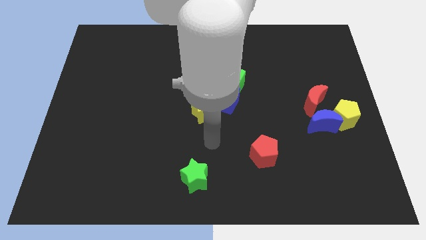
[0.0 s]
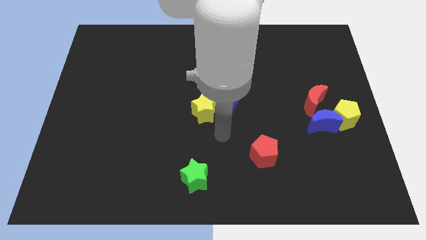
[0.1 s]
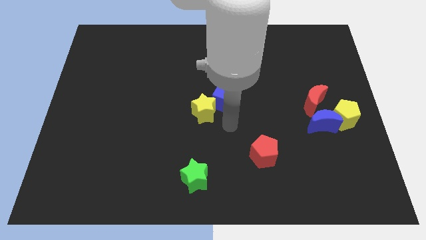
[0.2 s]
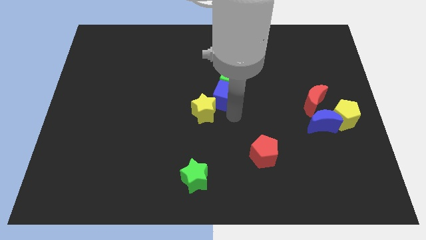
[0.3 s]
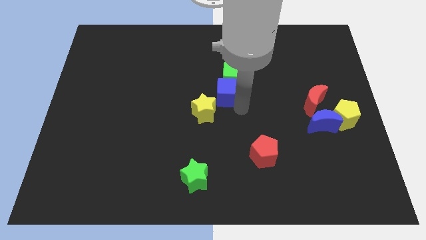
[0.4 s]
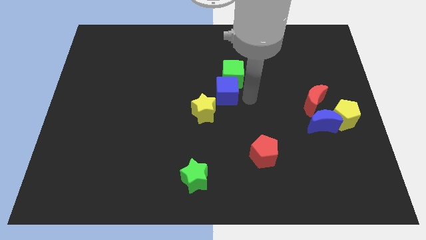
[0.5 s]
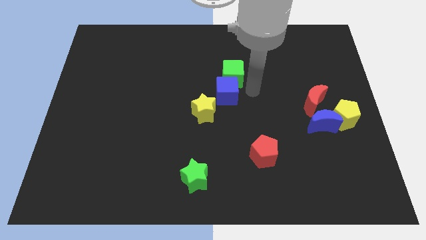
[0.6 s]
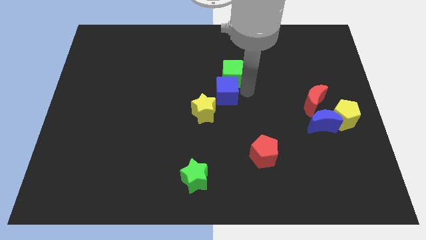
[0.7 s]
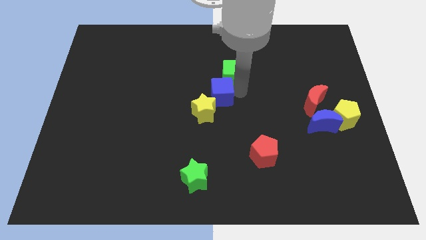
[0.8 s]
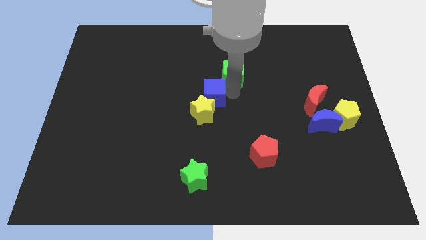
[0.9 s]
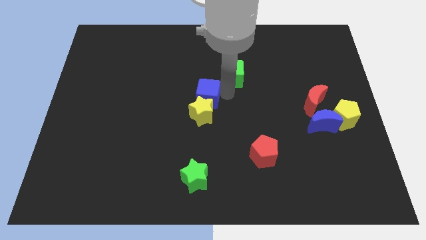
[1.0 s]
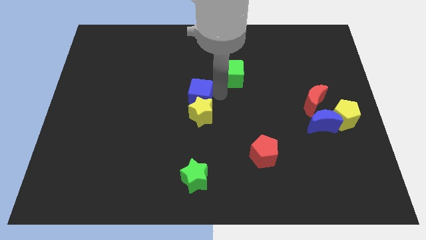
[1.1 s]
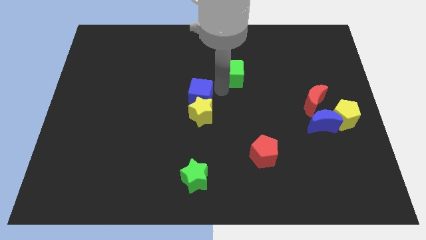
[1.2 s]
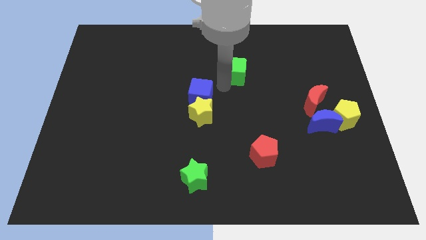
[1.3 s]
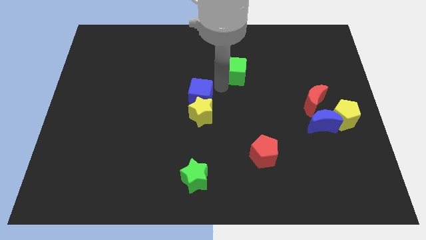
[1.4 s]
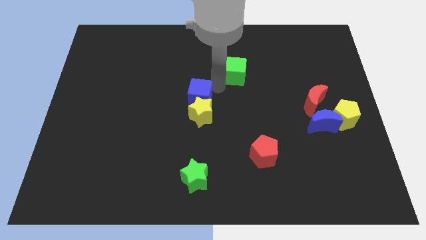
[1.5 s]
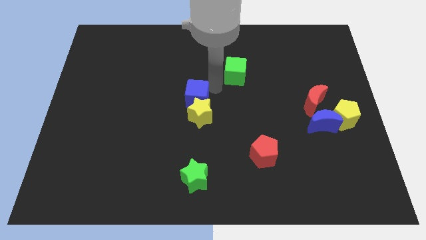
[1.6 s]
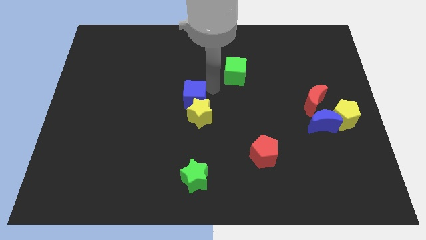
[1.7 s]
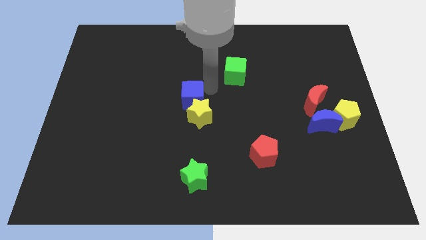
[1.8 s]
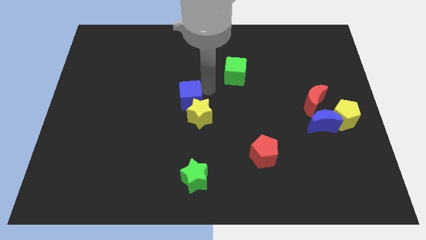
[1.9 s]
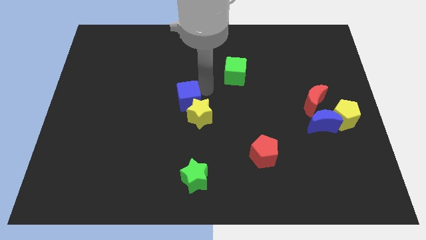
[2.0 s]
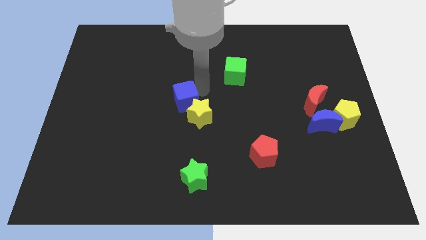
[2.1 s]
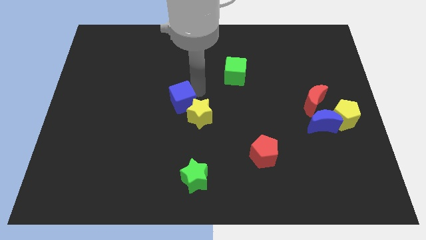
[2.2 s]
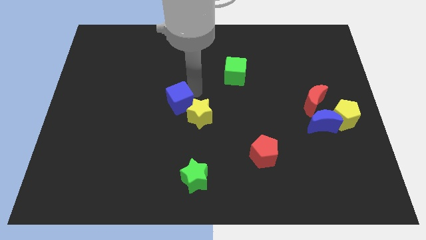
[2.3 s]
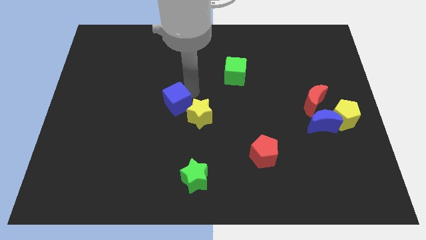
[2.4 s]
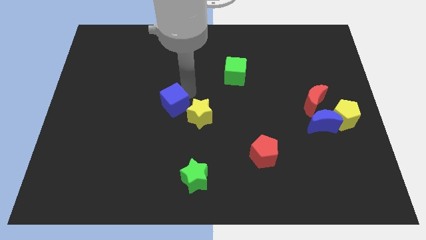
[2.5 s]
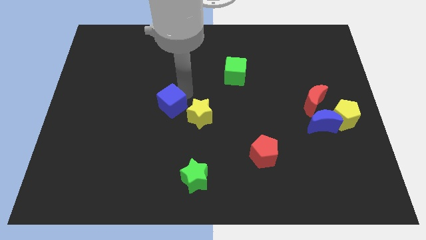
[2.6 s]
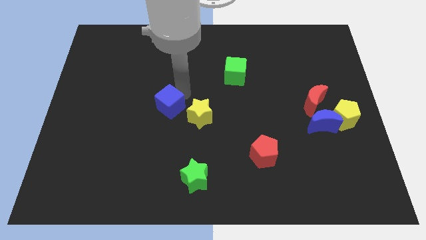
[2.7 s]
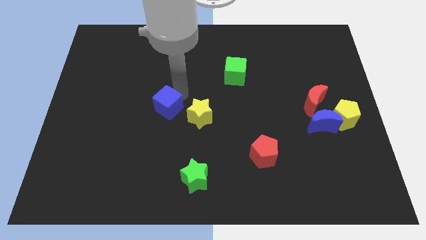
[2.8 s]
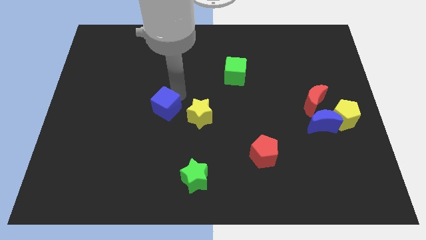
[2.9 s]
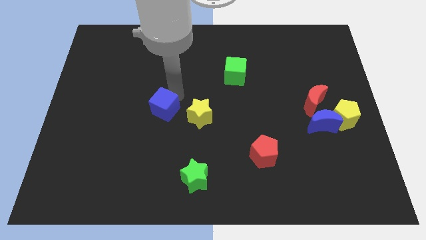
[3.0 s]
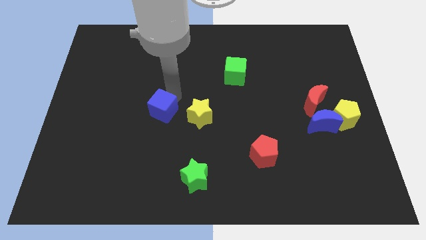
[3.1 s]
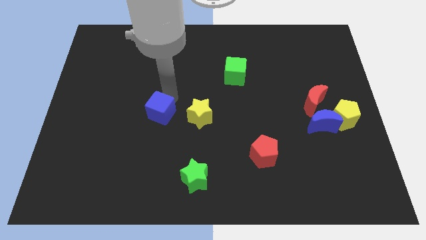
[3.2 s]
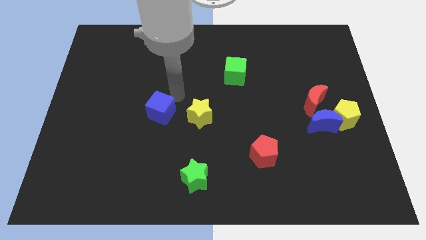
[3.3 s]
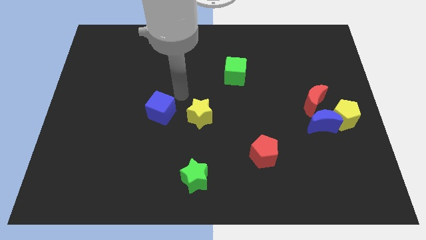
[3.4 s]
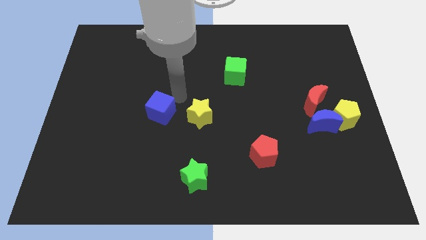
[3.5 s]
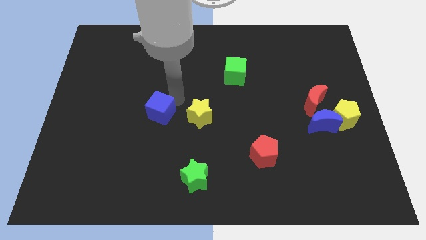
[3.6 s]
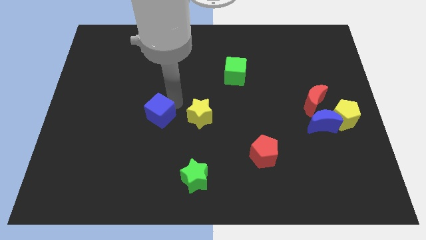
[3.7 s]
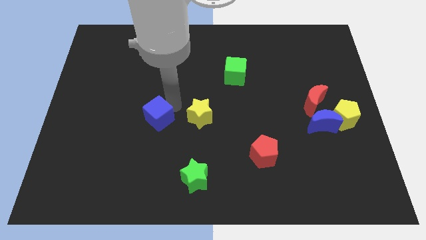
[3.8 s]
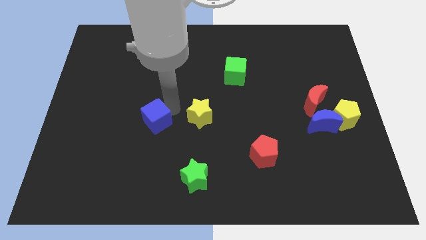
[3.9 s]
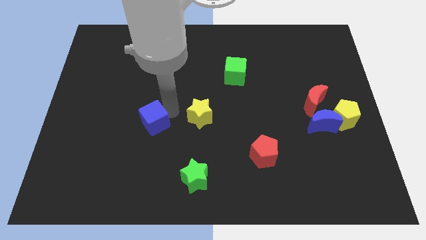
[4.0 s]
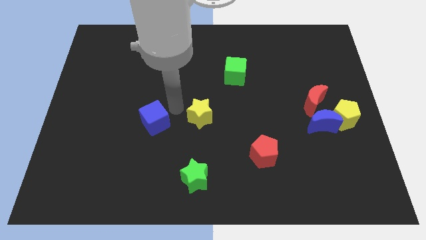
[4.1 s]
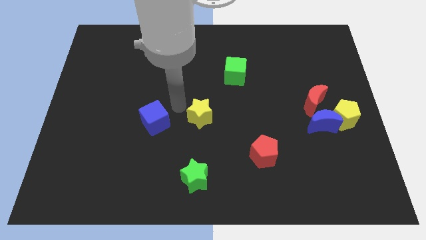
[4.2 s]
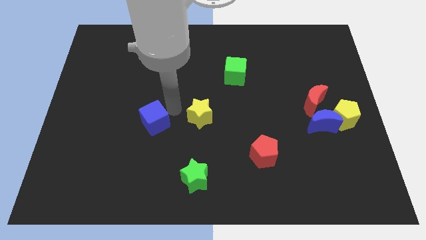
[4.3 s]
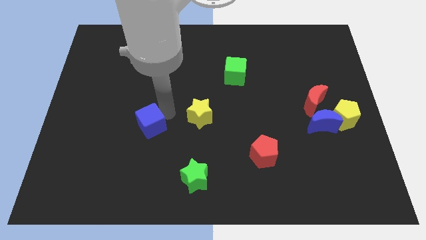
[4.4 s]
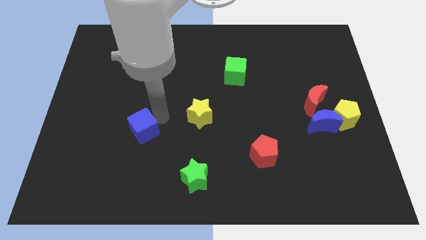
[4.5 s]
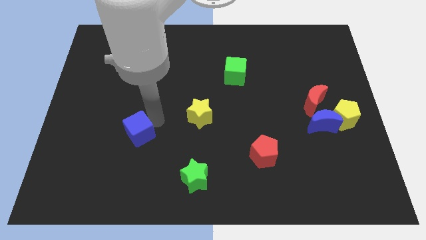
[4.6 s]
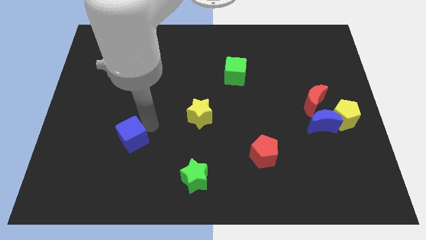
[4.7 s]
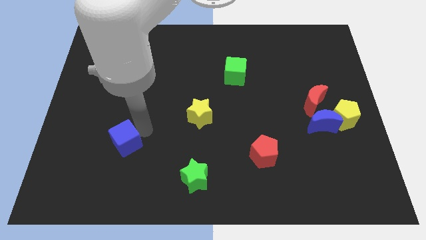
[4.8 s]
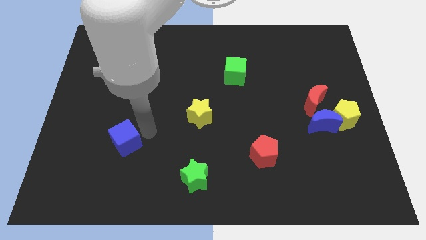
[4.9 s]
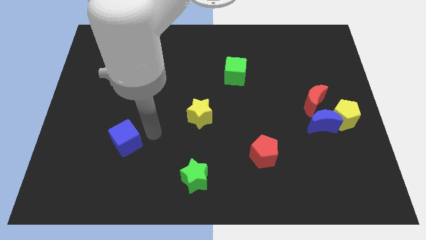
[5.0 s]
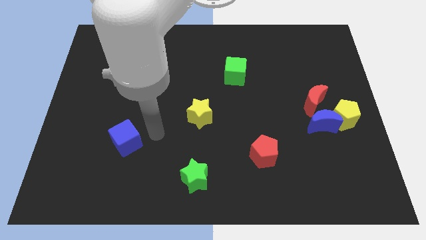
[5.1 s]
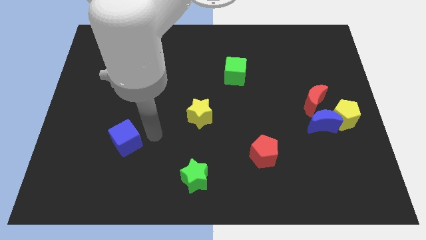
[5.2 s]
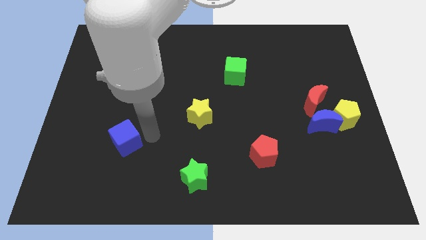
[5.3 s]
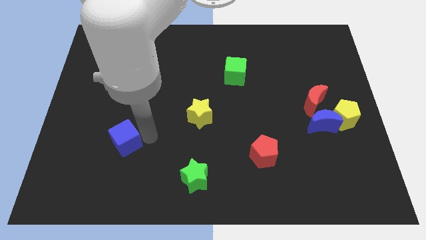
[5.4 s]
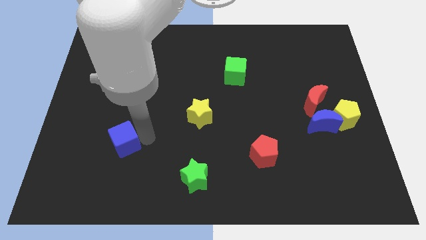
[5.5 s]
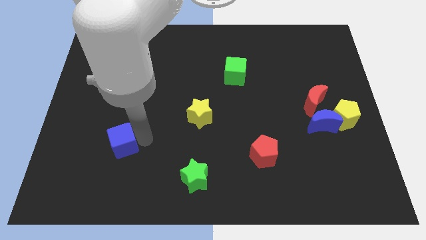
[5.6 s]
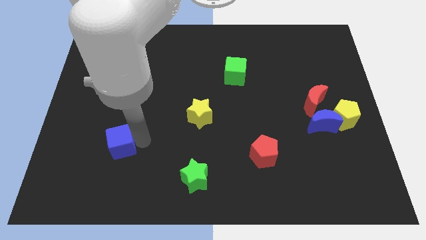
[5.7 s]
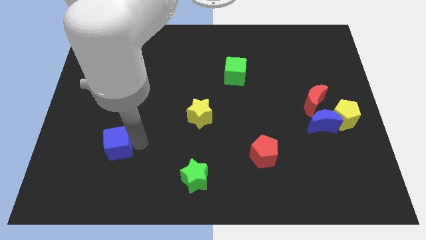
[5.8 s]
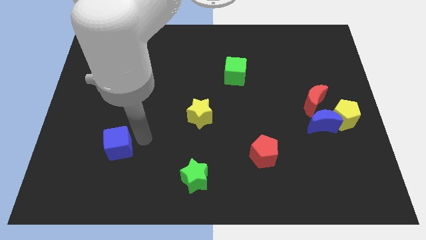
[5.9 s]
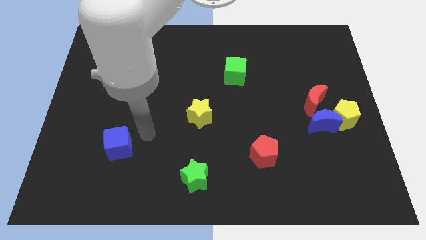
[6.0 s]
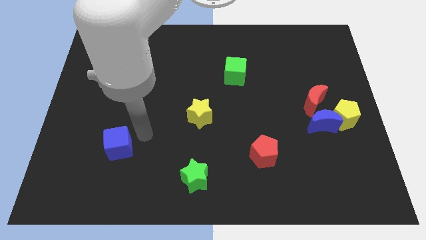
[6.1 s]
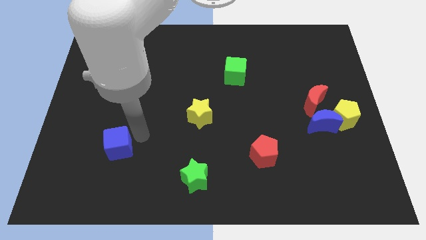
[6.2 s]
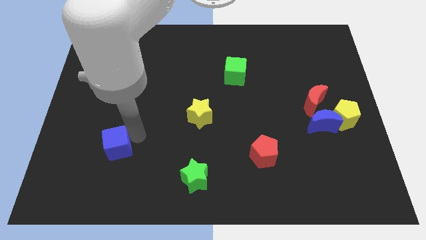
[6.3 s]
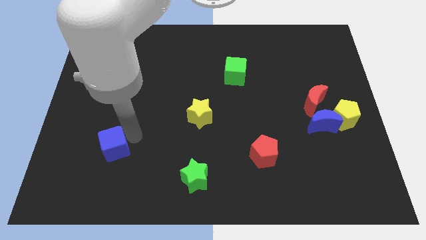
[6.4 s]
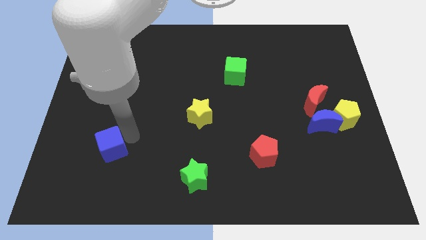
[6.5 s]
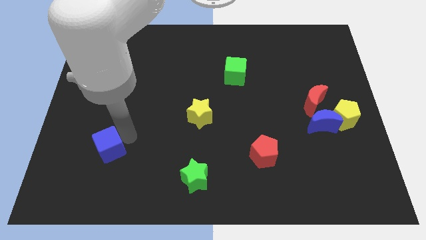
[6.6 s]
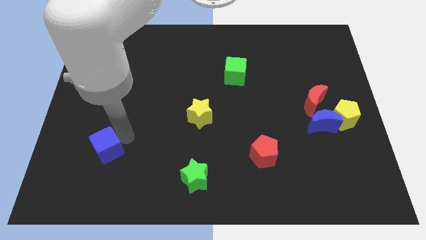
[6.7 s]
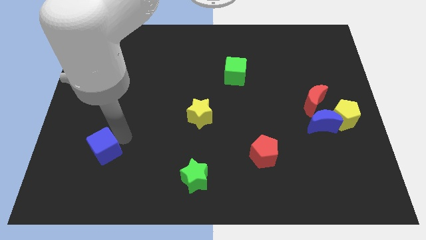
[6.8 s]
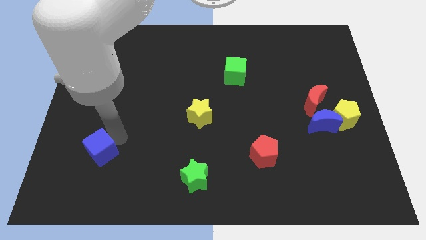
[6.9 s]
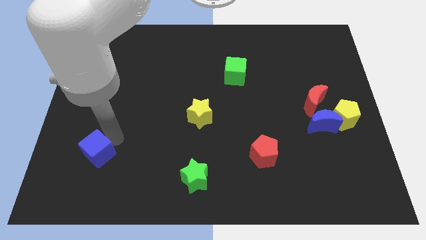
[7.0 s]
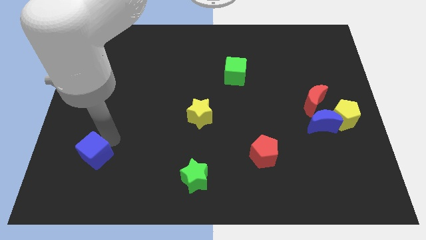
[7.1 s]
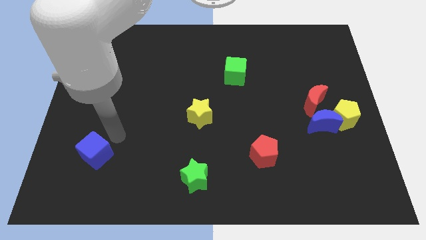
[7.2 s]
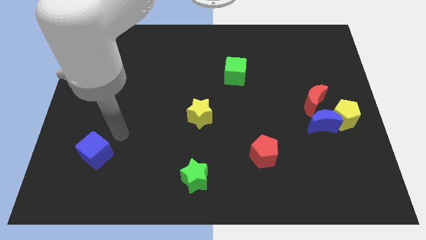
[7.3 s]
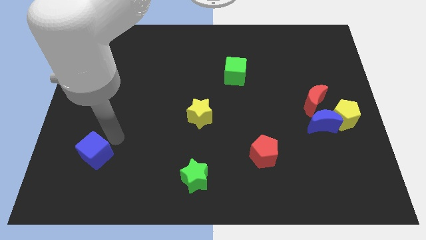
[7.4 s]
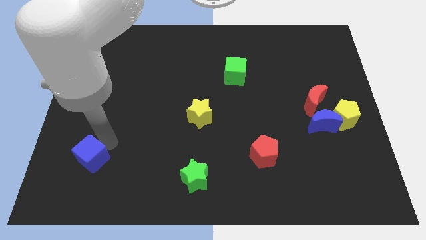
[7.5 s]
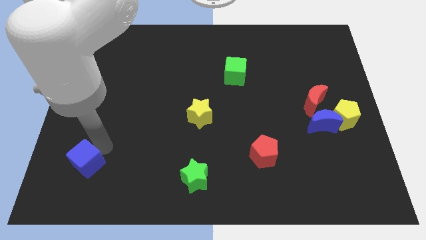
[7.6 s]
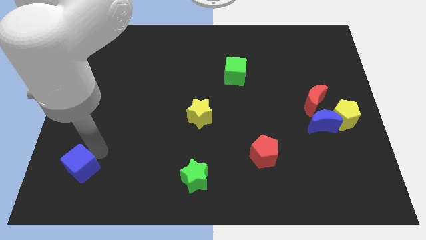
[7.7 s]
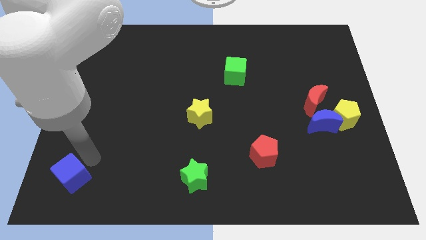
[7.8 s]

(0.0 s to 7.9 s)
slide the blue cube to the lower left corner
